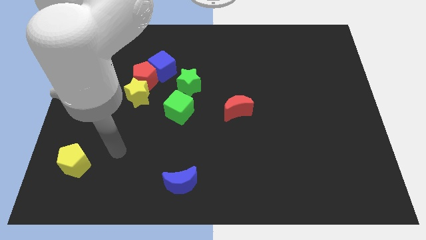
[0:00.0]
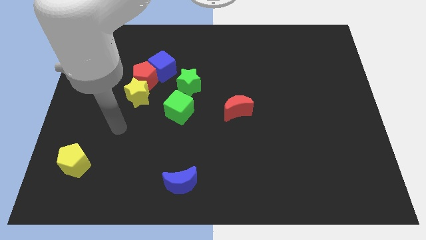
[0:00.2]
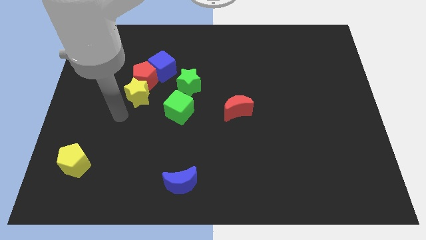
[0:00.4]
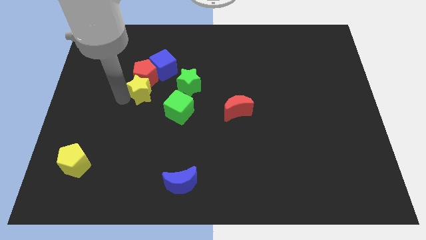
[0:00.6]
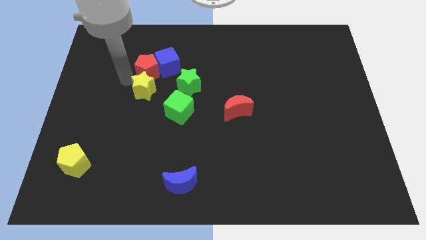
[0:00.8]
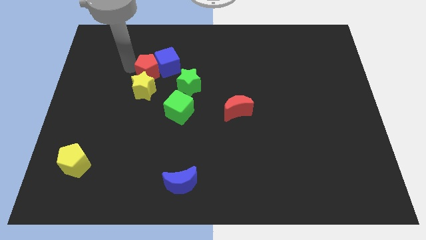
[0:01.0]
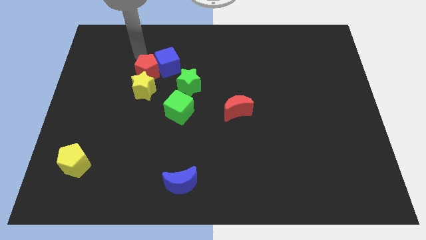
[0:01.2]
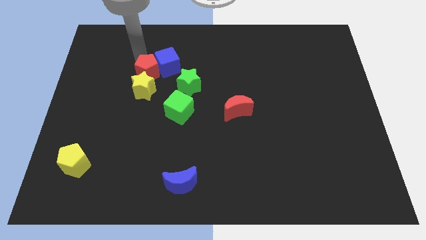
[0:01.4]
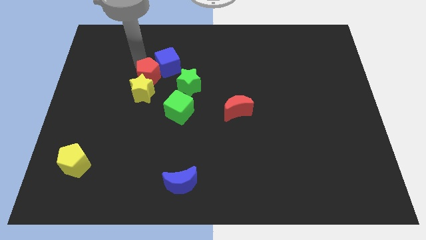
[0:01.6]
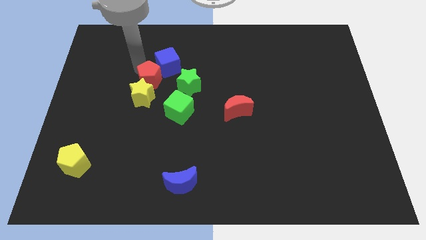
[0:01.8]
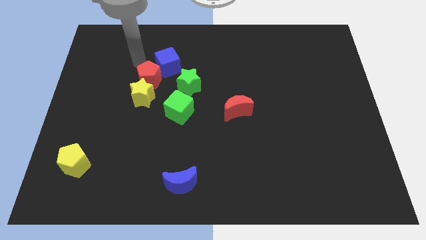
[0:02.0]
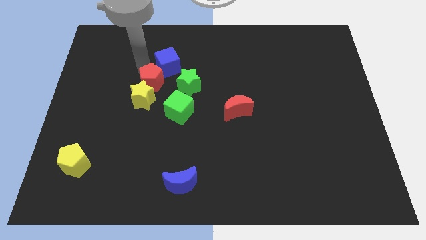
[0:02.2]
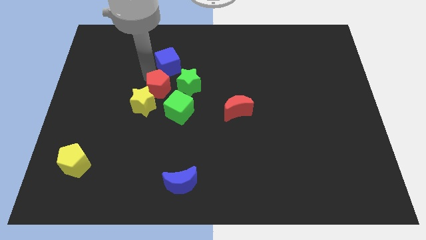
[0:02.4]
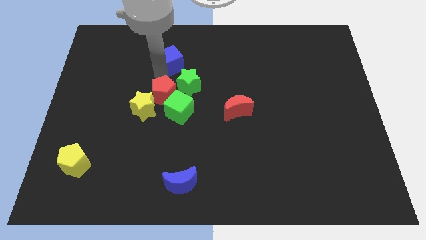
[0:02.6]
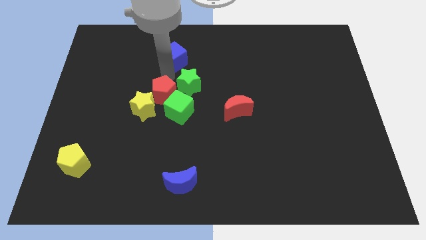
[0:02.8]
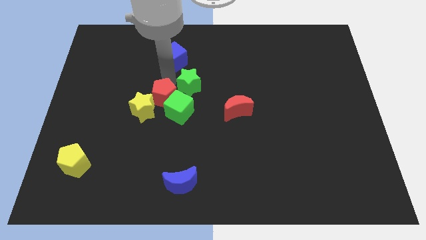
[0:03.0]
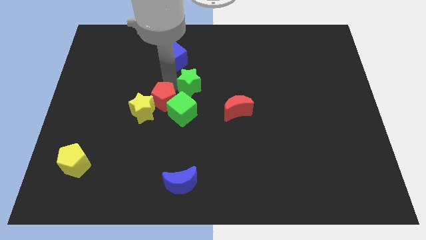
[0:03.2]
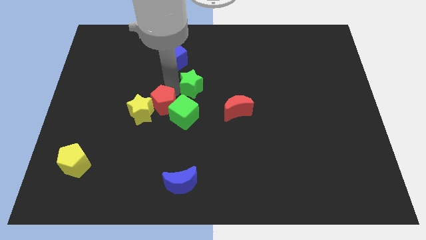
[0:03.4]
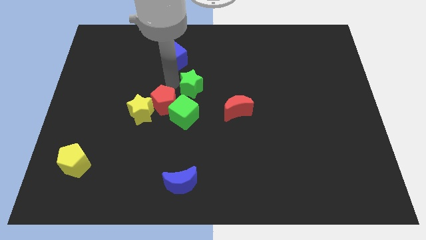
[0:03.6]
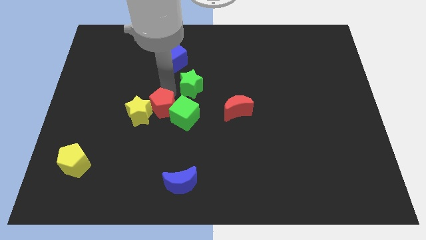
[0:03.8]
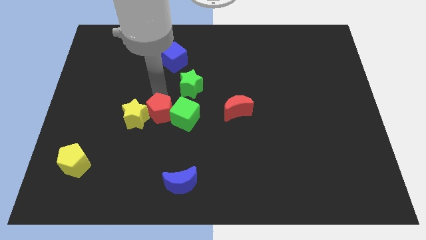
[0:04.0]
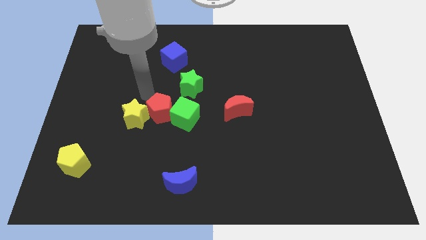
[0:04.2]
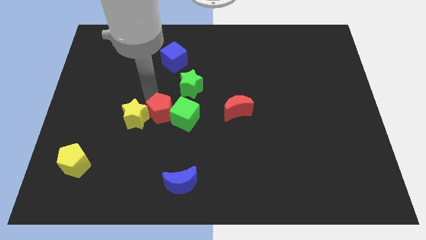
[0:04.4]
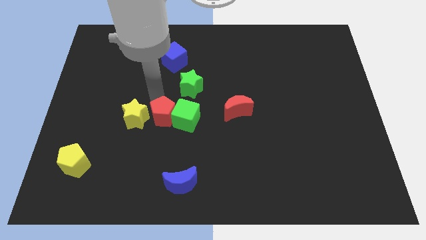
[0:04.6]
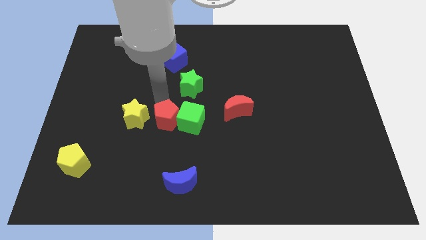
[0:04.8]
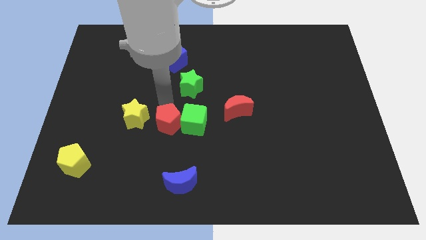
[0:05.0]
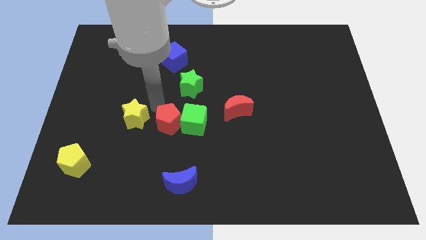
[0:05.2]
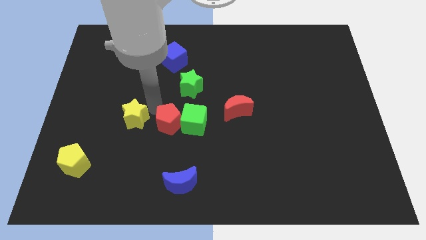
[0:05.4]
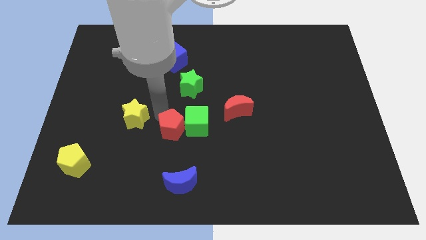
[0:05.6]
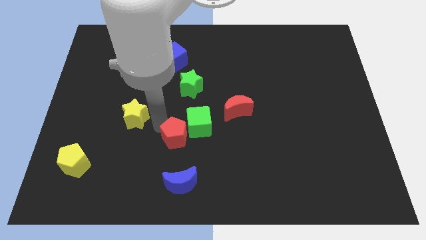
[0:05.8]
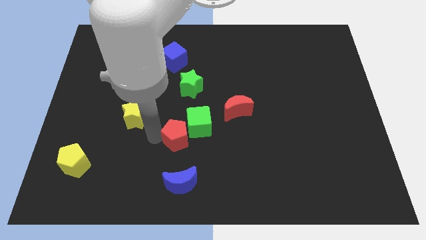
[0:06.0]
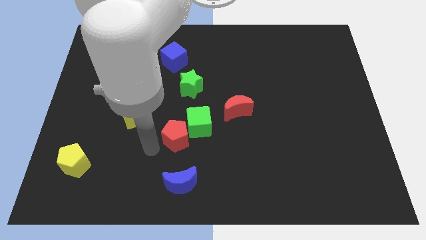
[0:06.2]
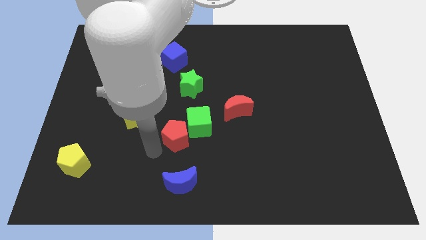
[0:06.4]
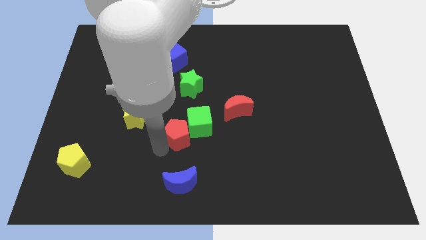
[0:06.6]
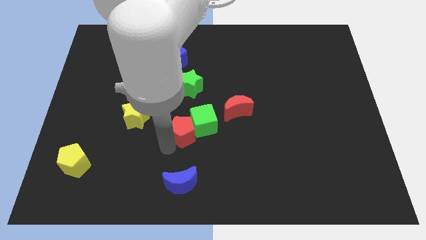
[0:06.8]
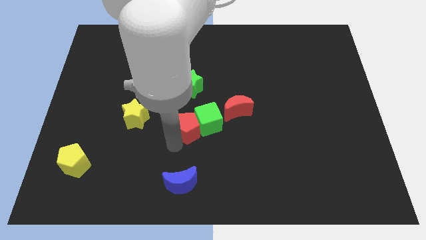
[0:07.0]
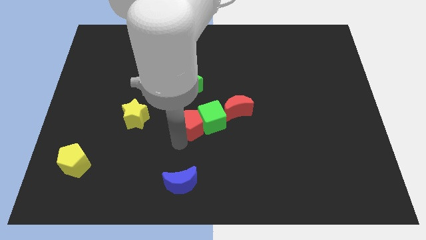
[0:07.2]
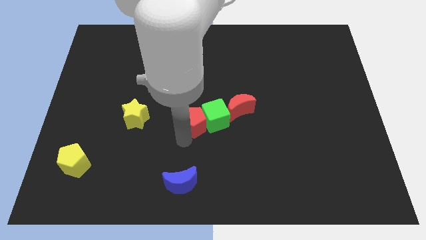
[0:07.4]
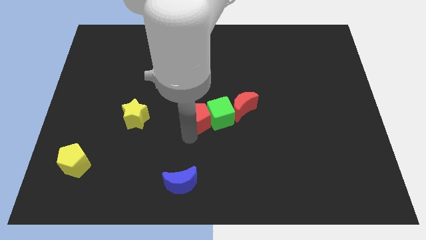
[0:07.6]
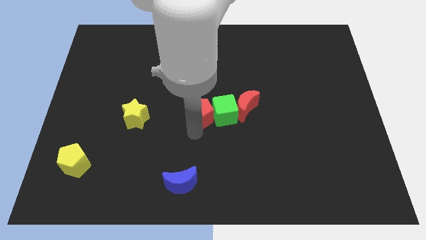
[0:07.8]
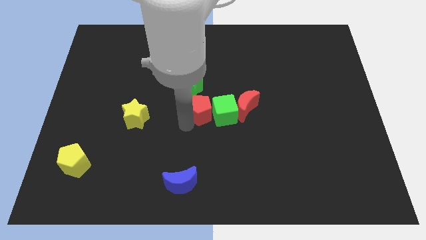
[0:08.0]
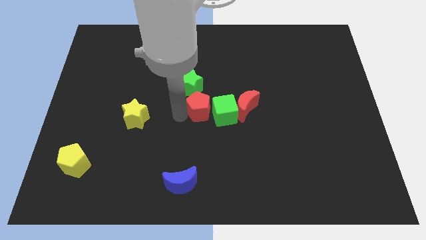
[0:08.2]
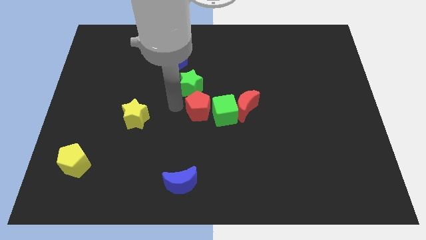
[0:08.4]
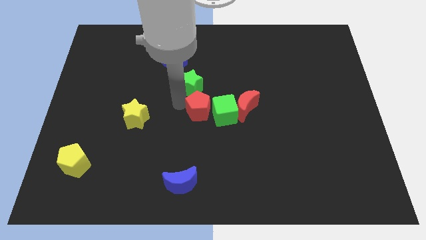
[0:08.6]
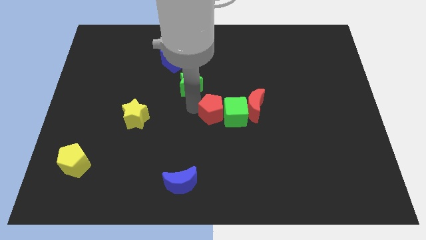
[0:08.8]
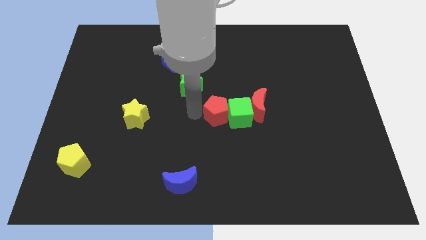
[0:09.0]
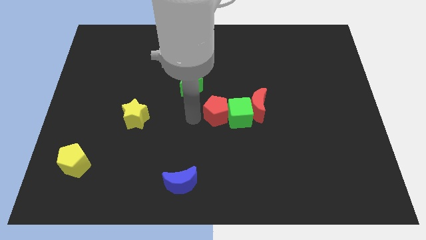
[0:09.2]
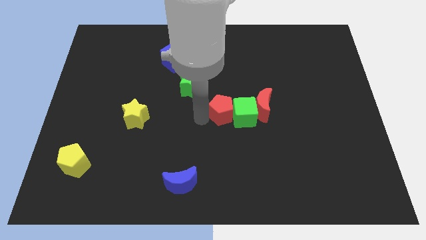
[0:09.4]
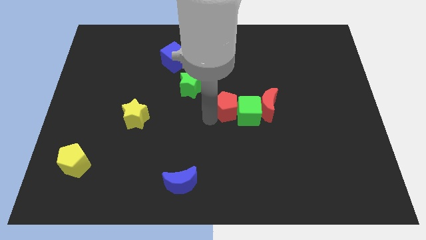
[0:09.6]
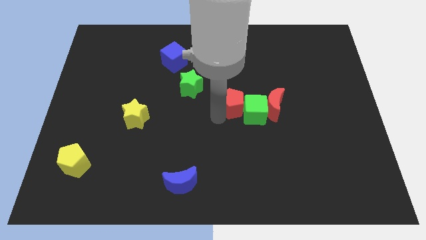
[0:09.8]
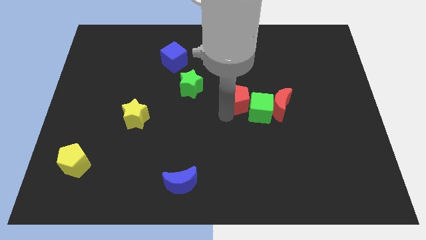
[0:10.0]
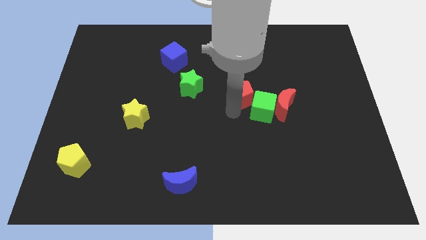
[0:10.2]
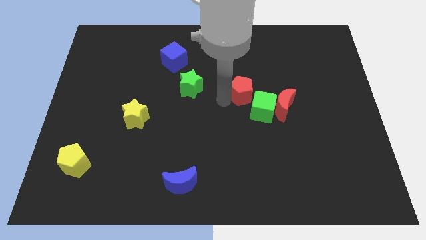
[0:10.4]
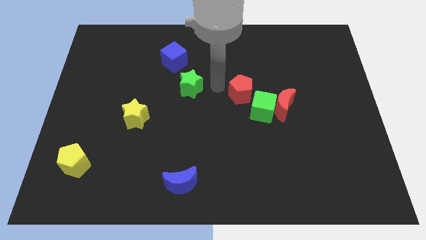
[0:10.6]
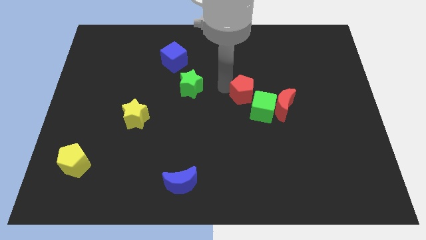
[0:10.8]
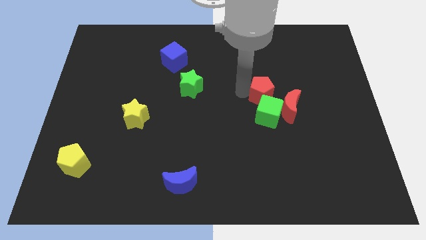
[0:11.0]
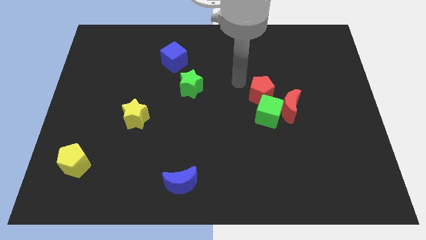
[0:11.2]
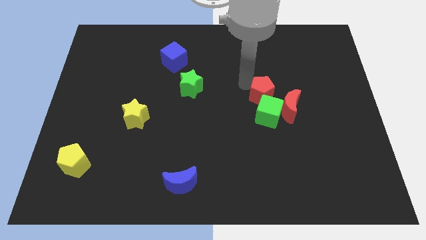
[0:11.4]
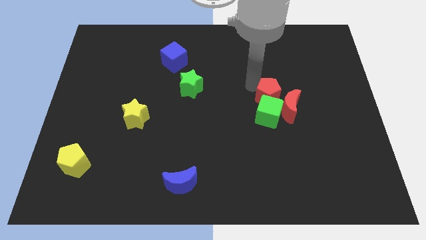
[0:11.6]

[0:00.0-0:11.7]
slide the red pentagon close to the red moon

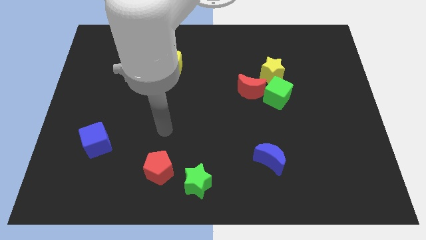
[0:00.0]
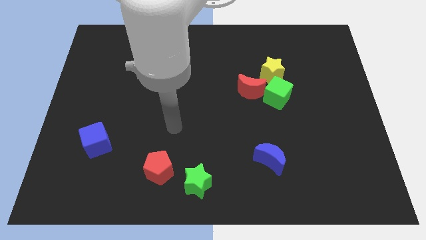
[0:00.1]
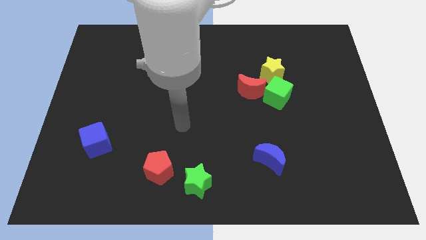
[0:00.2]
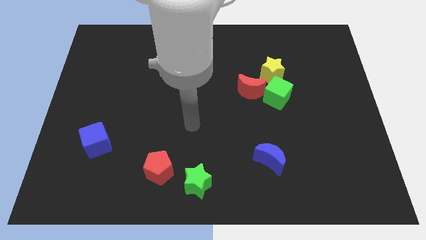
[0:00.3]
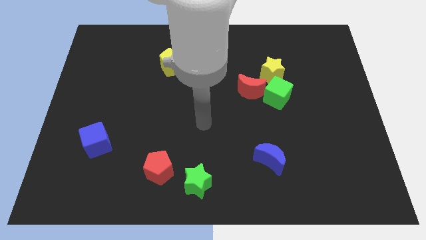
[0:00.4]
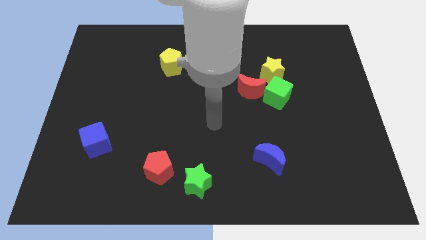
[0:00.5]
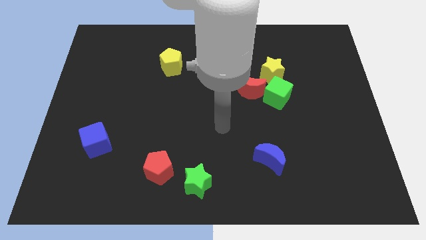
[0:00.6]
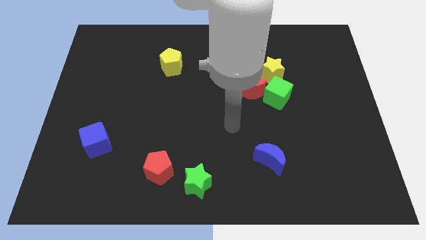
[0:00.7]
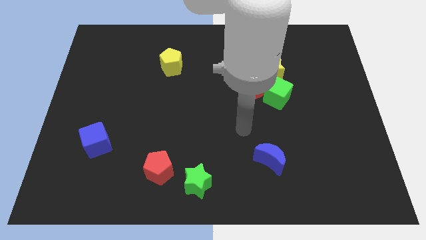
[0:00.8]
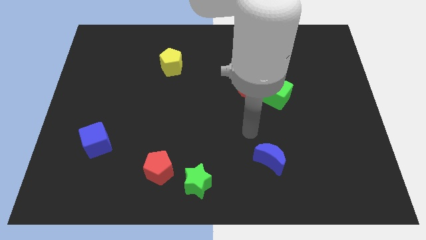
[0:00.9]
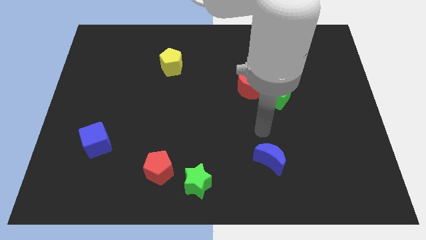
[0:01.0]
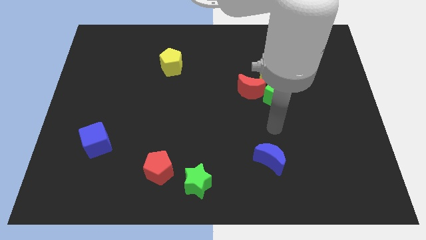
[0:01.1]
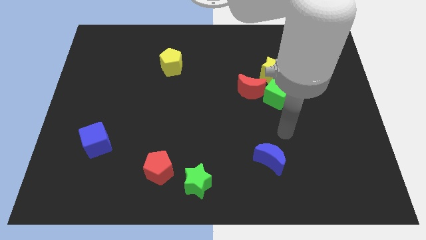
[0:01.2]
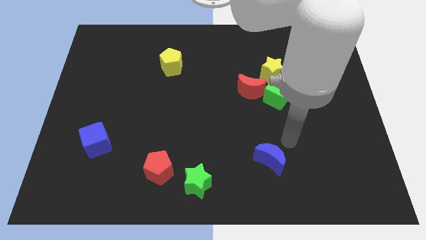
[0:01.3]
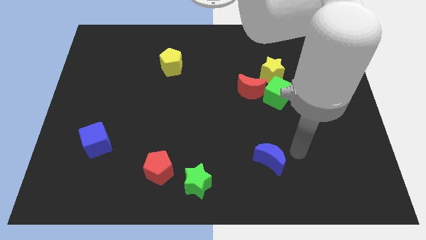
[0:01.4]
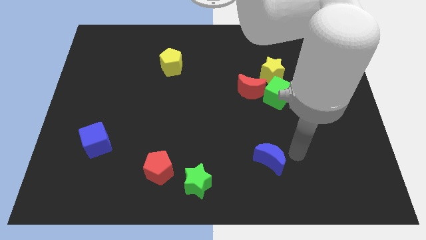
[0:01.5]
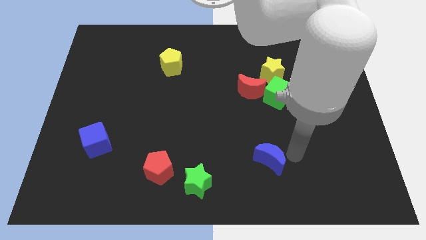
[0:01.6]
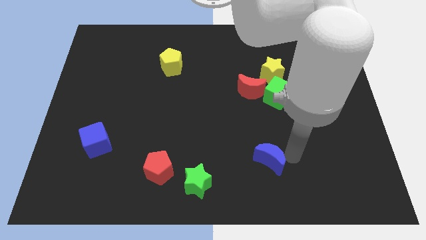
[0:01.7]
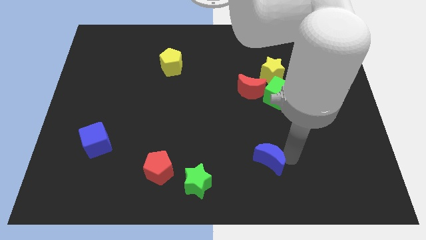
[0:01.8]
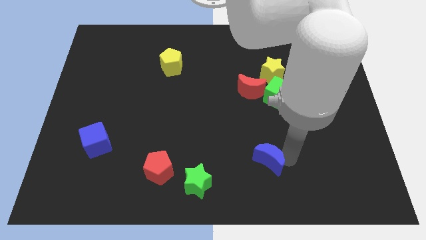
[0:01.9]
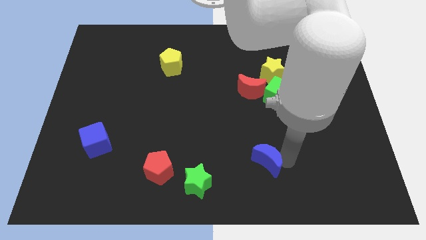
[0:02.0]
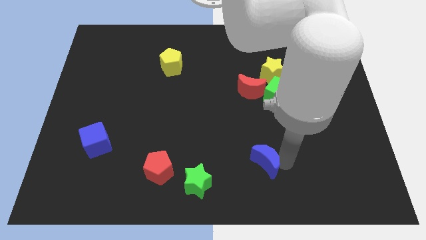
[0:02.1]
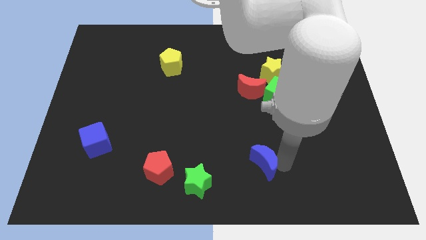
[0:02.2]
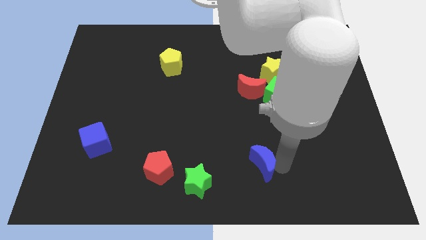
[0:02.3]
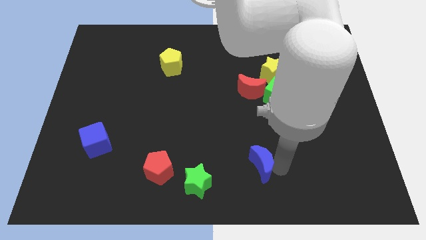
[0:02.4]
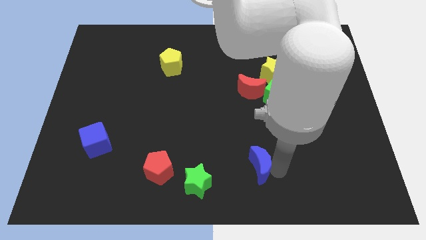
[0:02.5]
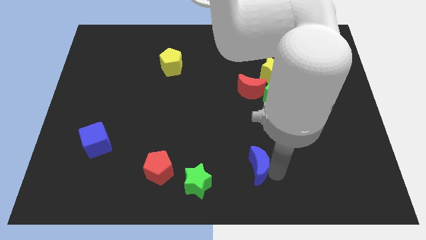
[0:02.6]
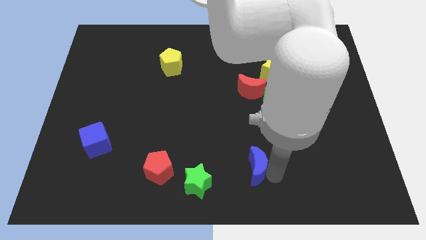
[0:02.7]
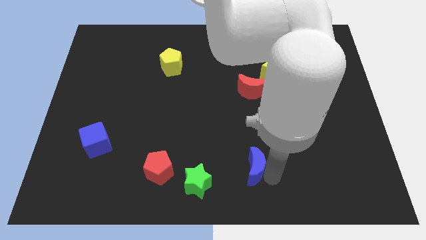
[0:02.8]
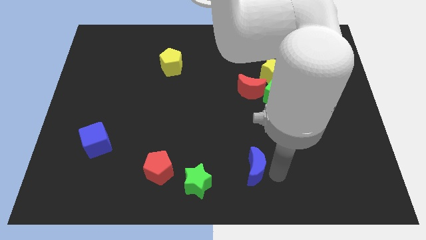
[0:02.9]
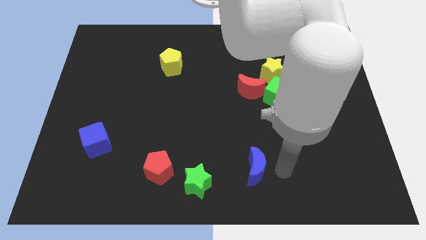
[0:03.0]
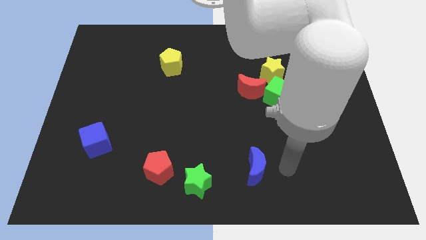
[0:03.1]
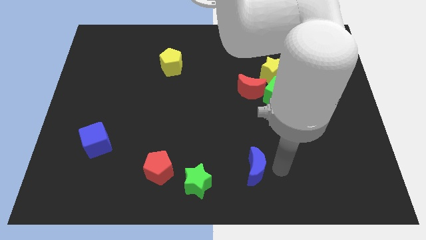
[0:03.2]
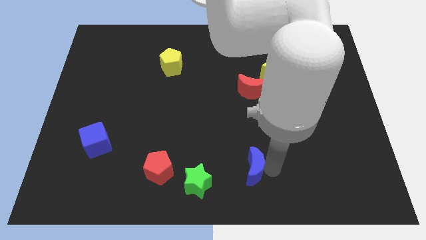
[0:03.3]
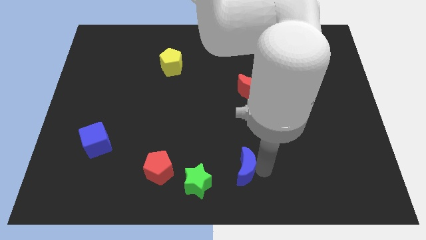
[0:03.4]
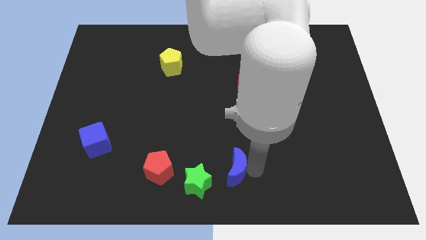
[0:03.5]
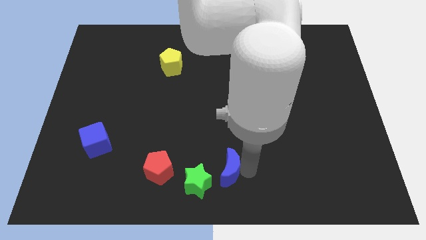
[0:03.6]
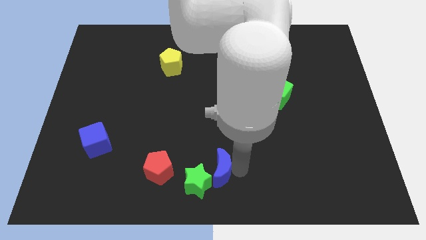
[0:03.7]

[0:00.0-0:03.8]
move the blue moon next to the green star
